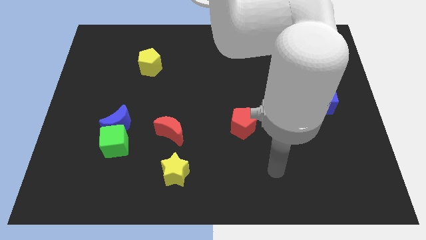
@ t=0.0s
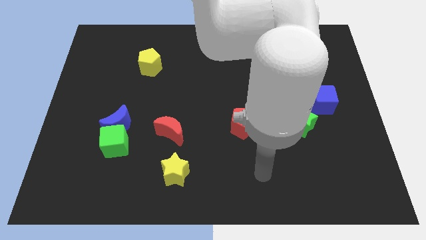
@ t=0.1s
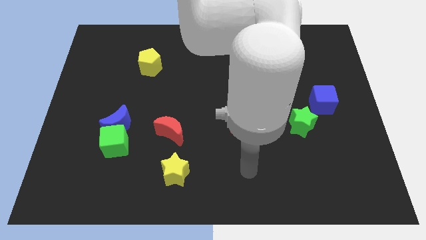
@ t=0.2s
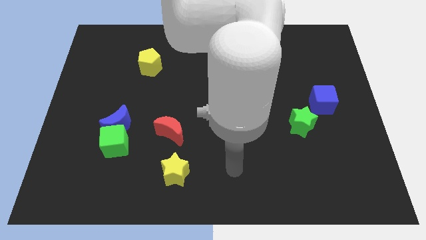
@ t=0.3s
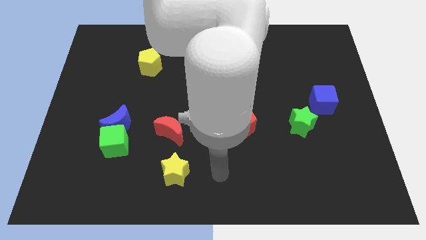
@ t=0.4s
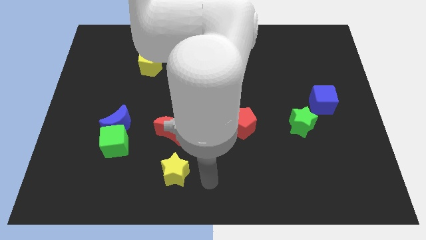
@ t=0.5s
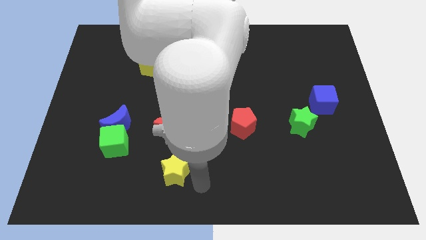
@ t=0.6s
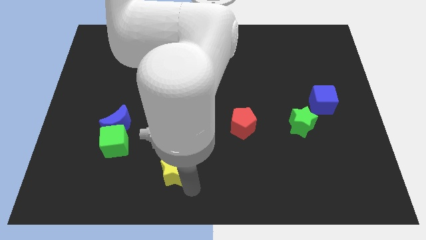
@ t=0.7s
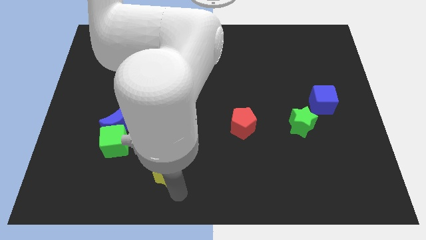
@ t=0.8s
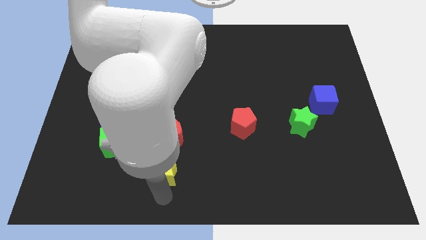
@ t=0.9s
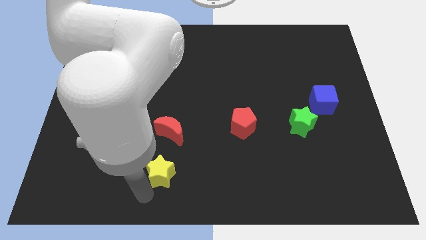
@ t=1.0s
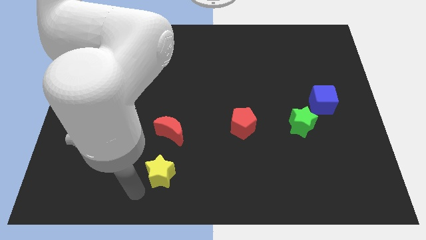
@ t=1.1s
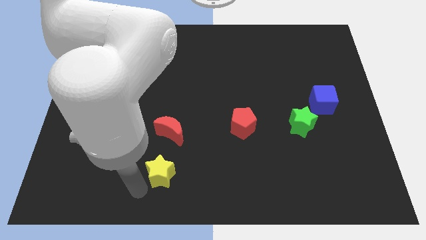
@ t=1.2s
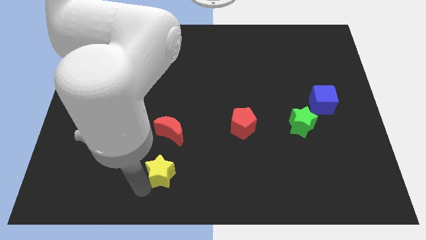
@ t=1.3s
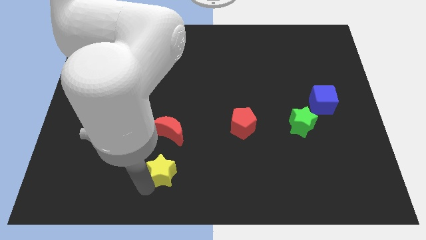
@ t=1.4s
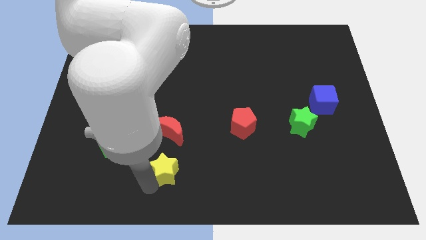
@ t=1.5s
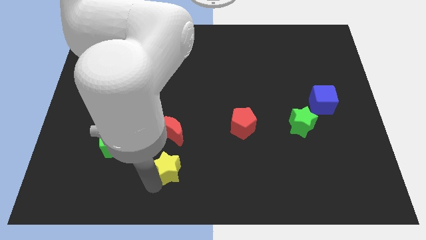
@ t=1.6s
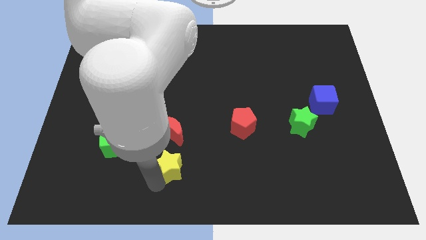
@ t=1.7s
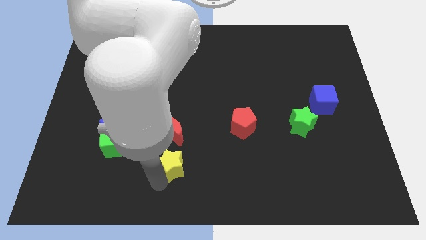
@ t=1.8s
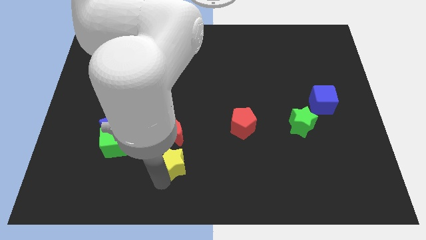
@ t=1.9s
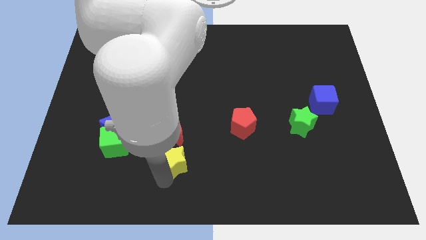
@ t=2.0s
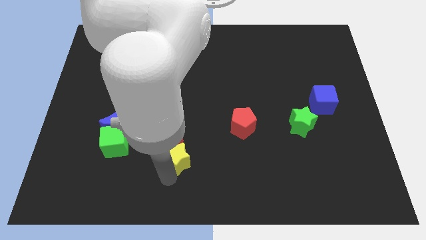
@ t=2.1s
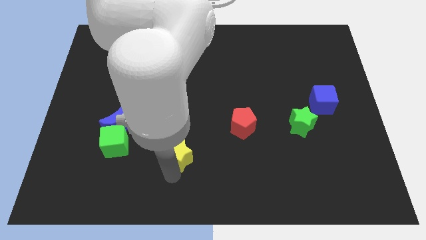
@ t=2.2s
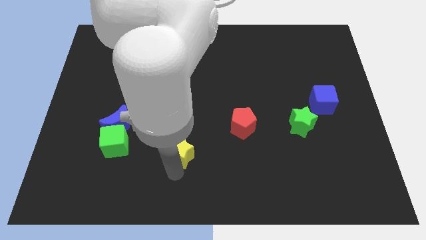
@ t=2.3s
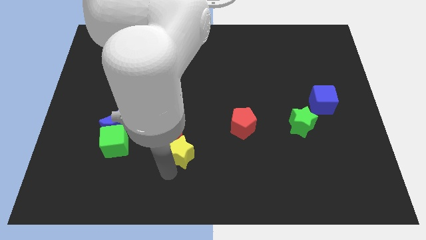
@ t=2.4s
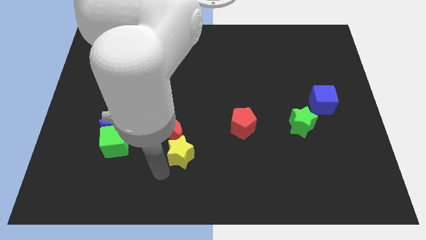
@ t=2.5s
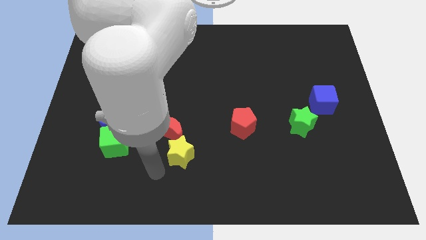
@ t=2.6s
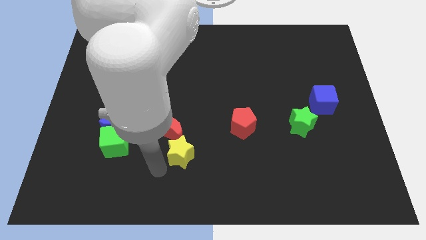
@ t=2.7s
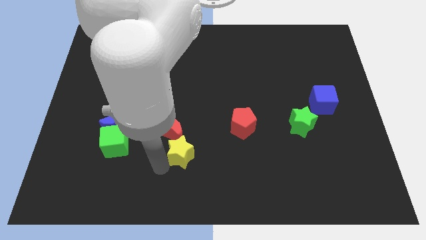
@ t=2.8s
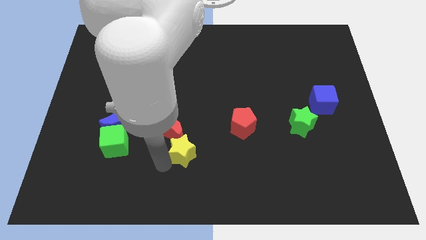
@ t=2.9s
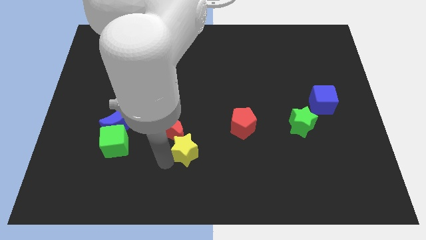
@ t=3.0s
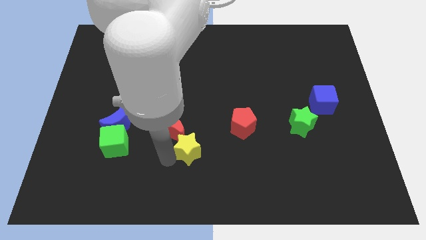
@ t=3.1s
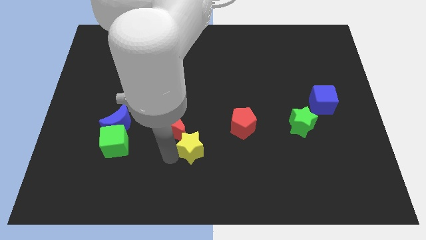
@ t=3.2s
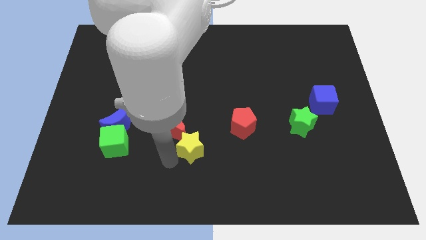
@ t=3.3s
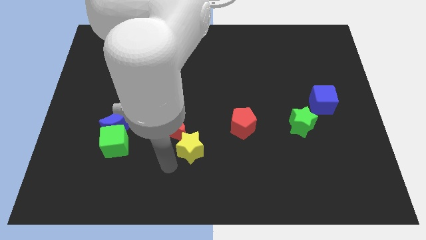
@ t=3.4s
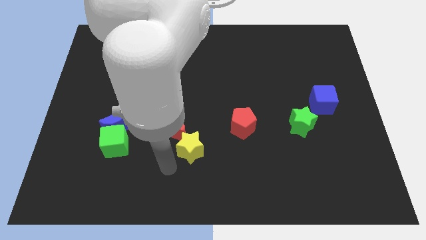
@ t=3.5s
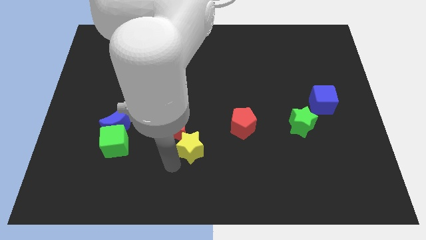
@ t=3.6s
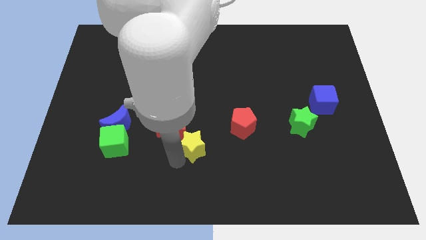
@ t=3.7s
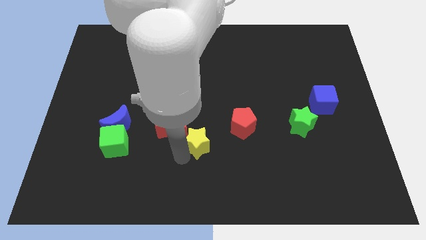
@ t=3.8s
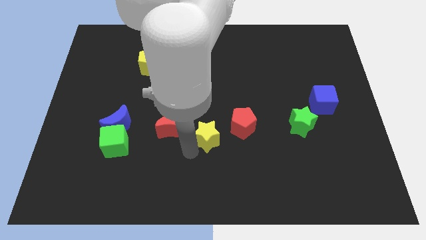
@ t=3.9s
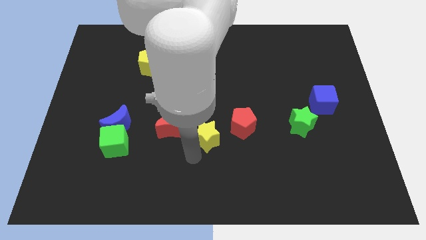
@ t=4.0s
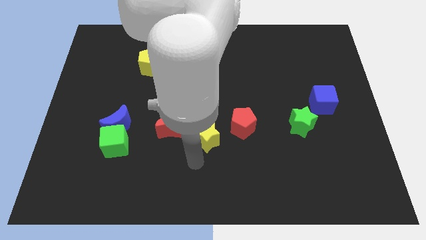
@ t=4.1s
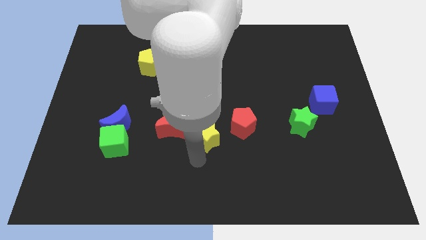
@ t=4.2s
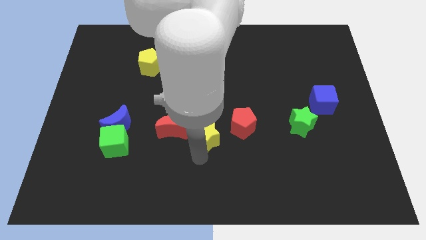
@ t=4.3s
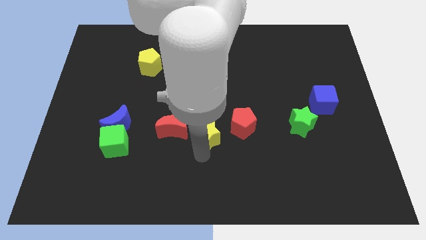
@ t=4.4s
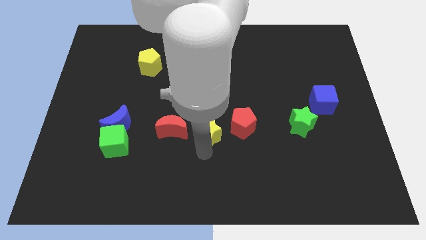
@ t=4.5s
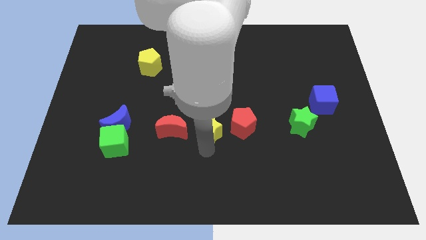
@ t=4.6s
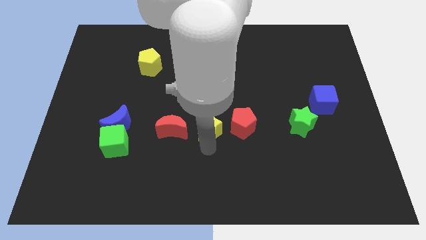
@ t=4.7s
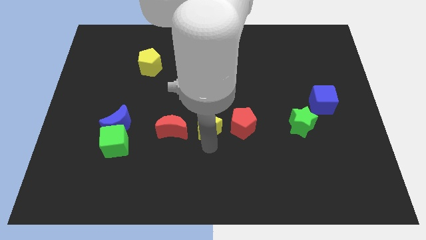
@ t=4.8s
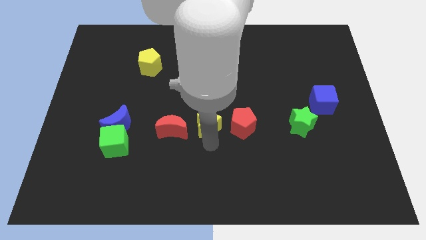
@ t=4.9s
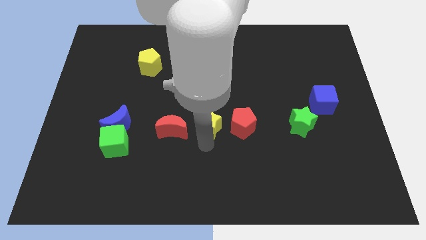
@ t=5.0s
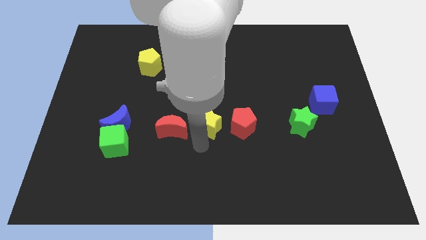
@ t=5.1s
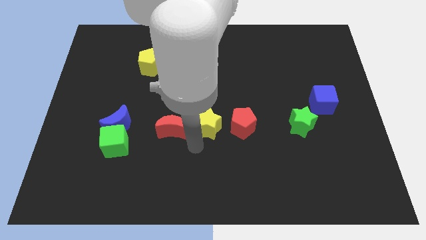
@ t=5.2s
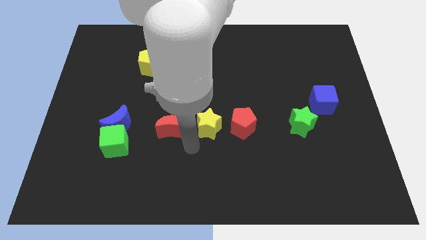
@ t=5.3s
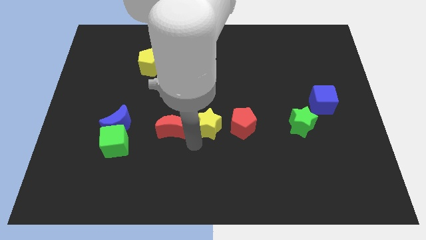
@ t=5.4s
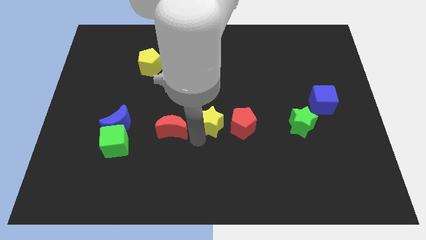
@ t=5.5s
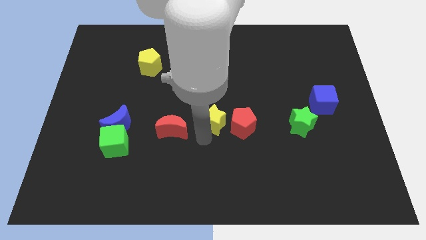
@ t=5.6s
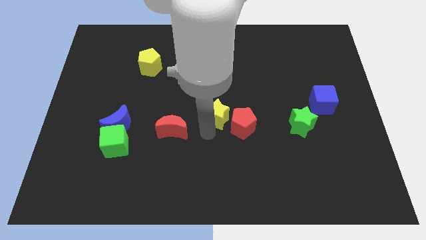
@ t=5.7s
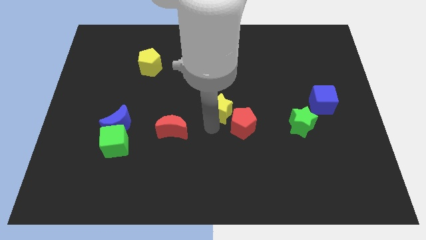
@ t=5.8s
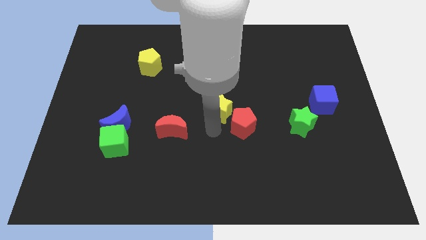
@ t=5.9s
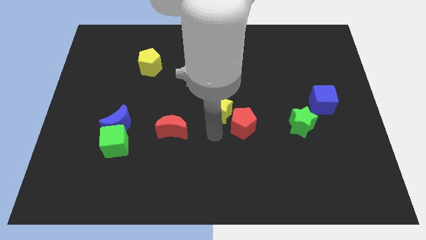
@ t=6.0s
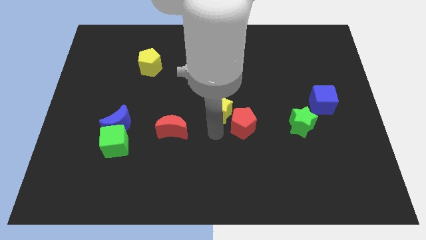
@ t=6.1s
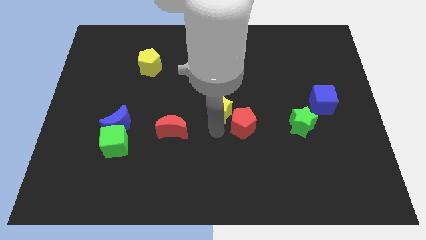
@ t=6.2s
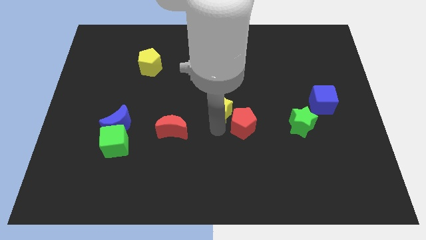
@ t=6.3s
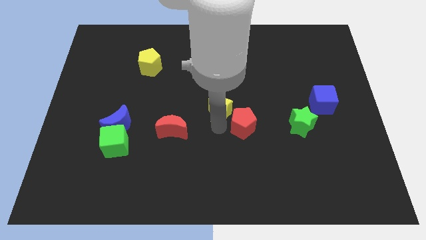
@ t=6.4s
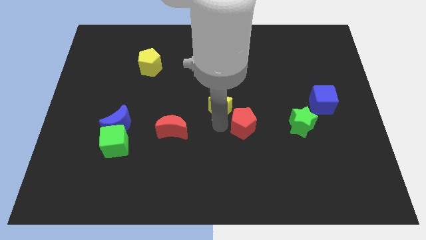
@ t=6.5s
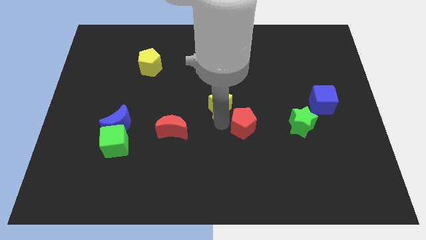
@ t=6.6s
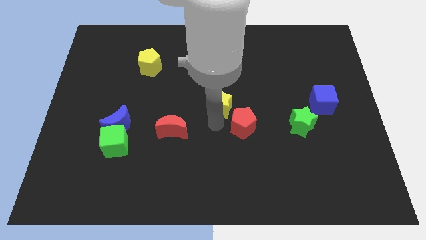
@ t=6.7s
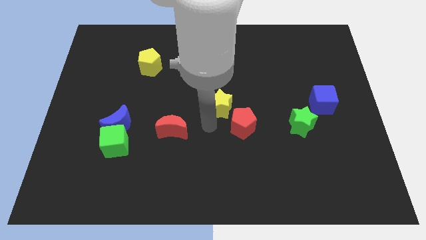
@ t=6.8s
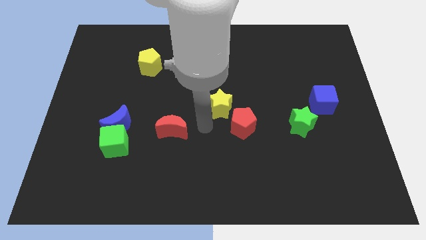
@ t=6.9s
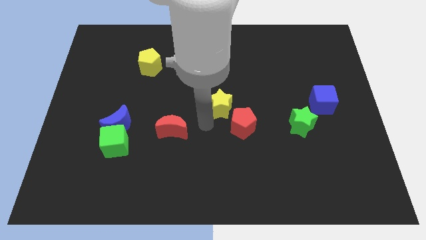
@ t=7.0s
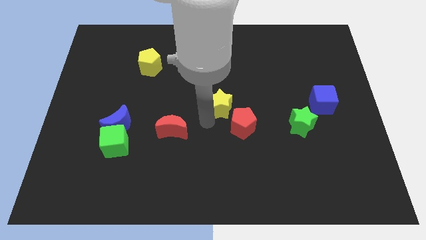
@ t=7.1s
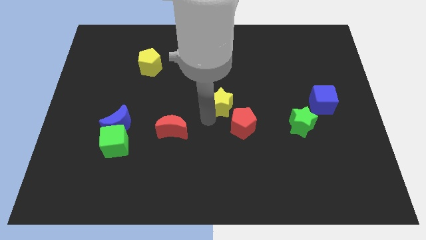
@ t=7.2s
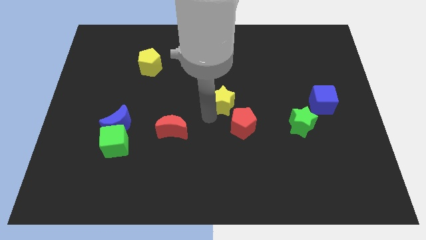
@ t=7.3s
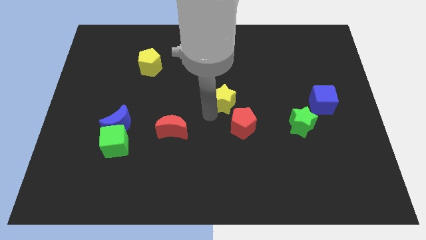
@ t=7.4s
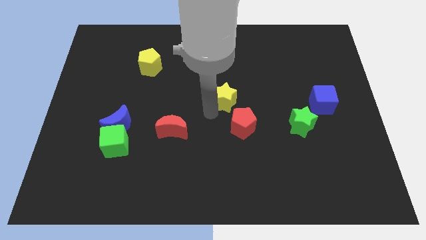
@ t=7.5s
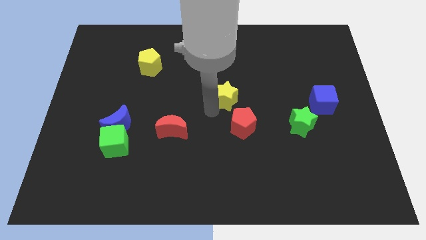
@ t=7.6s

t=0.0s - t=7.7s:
slide the yellow star diagonally upwards and right

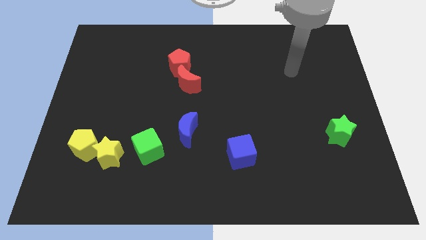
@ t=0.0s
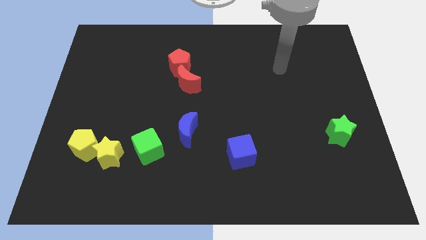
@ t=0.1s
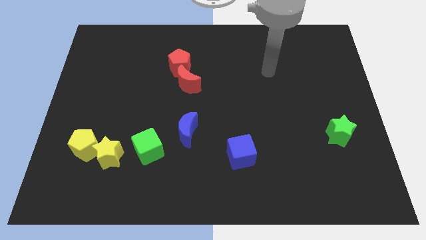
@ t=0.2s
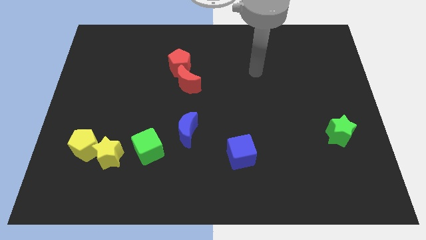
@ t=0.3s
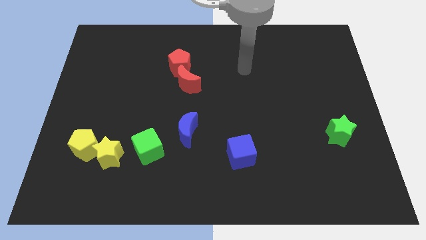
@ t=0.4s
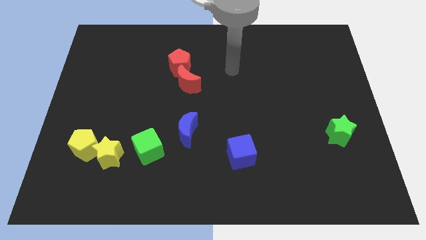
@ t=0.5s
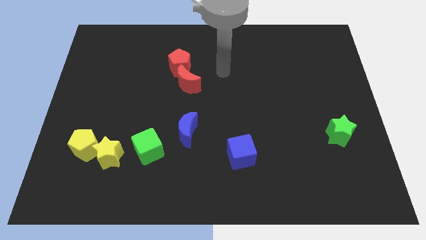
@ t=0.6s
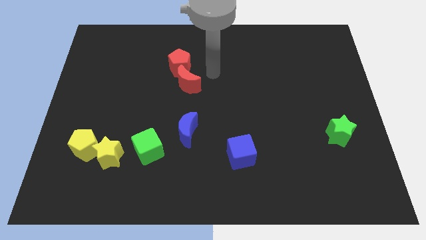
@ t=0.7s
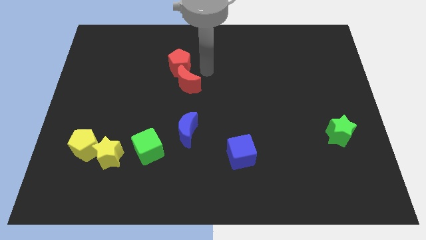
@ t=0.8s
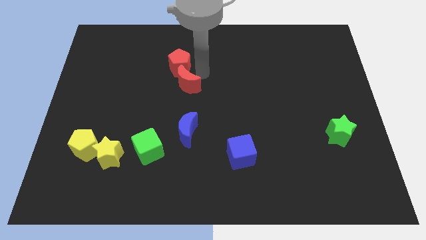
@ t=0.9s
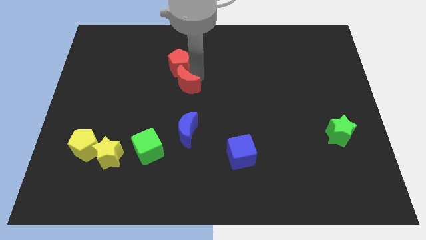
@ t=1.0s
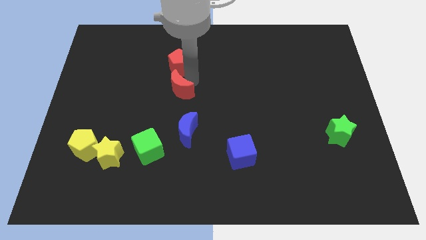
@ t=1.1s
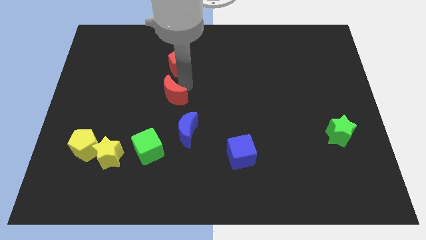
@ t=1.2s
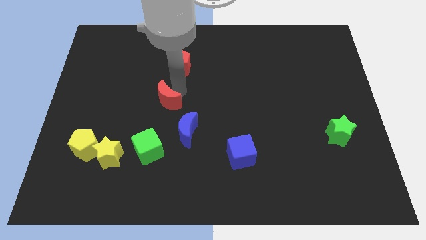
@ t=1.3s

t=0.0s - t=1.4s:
slightly push the red moon down and left
